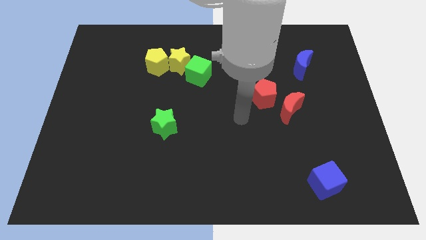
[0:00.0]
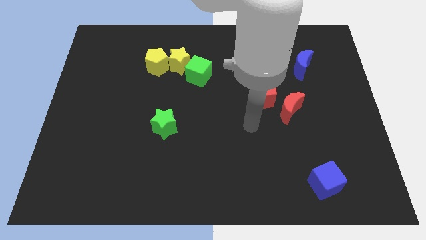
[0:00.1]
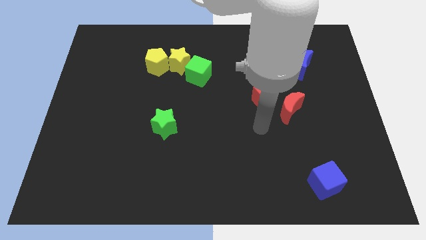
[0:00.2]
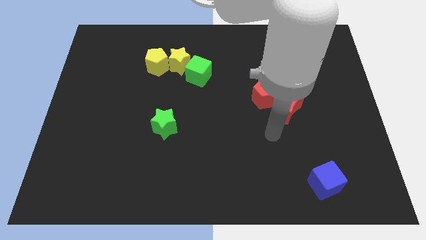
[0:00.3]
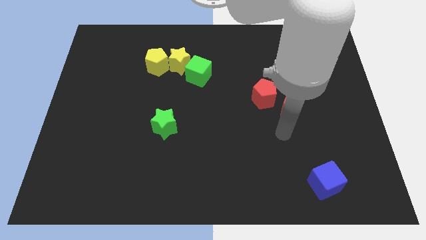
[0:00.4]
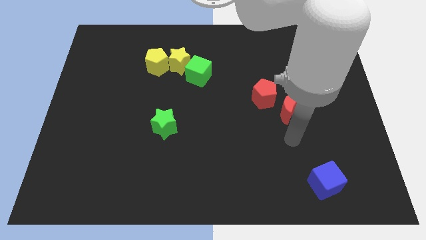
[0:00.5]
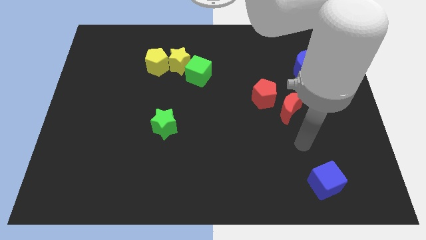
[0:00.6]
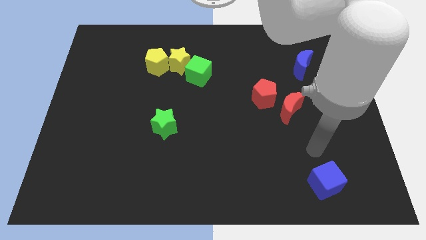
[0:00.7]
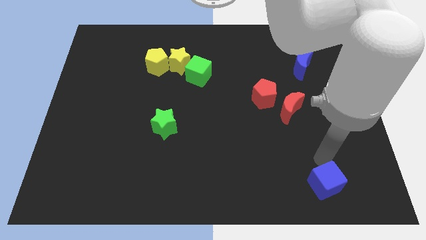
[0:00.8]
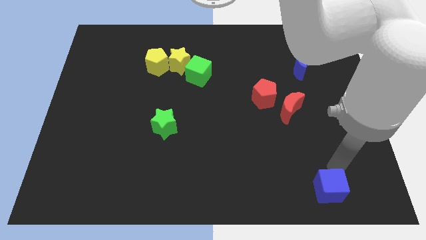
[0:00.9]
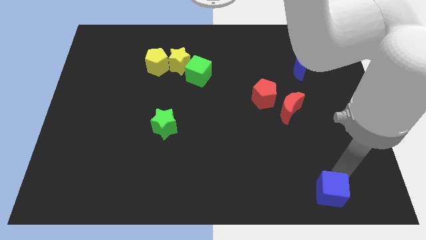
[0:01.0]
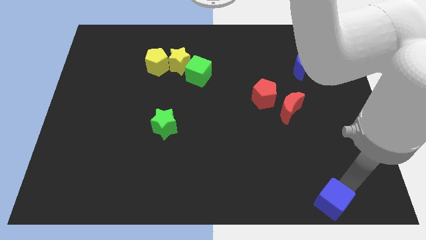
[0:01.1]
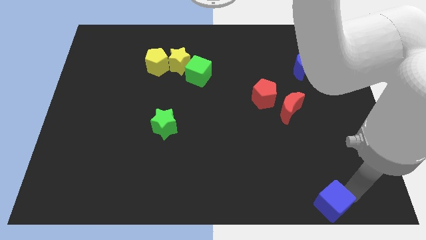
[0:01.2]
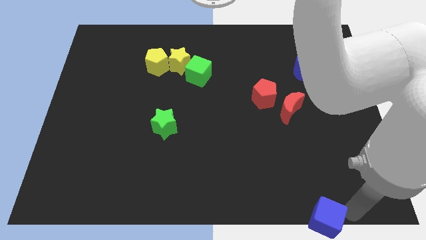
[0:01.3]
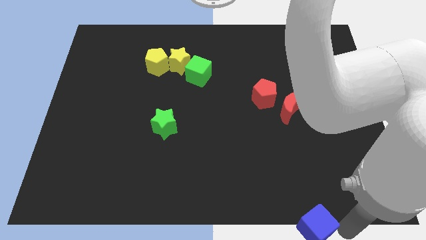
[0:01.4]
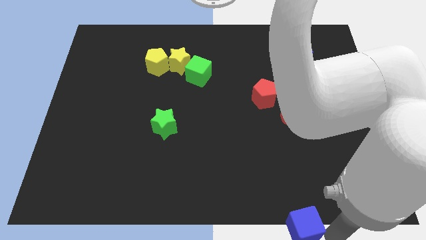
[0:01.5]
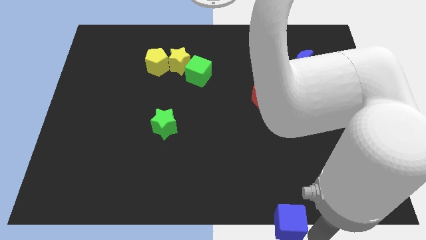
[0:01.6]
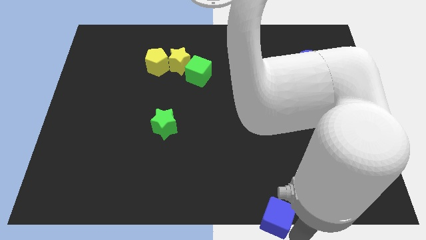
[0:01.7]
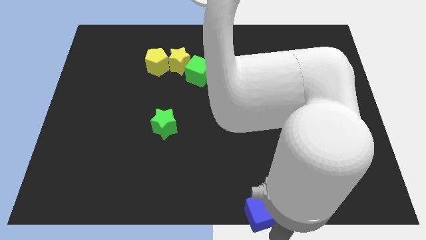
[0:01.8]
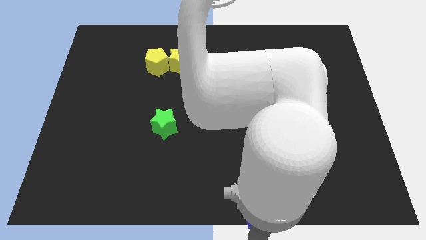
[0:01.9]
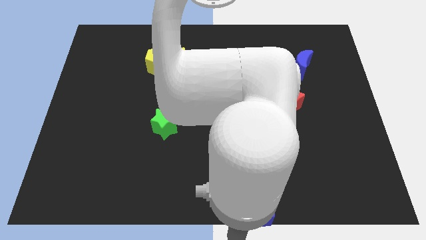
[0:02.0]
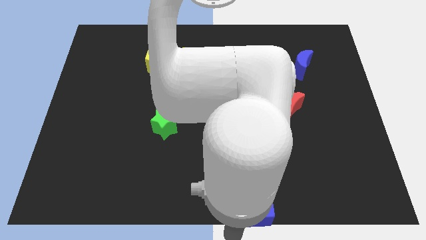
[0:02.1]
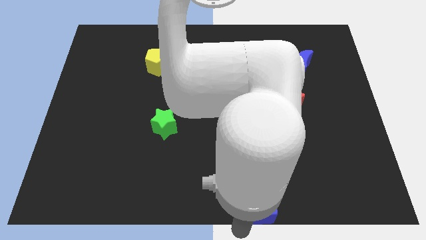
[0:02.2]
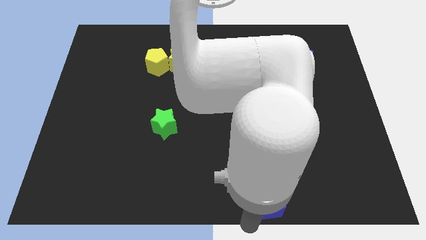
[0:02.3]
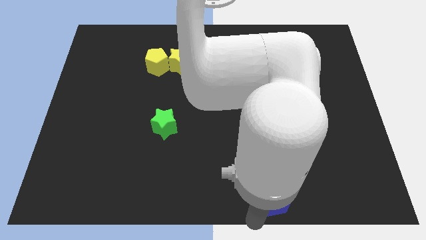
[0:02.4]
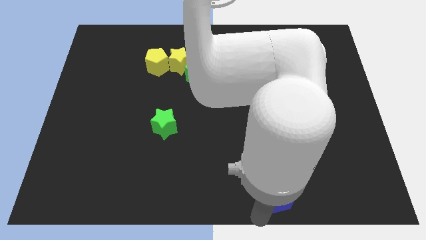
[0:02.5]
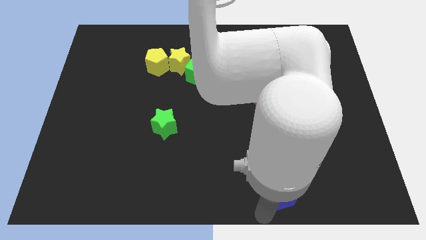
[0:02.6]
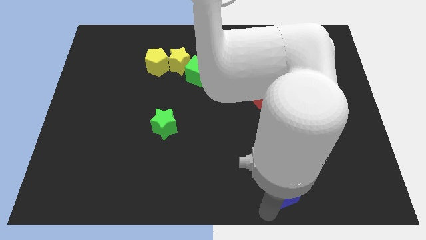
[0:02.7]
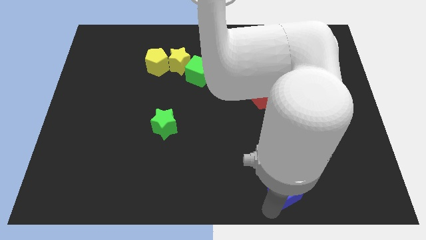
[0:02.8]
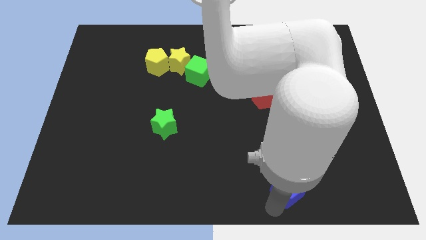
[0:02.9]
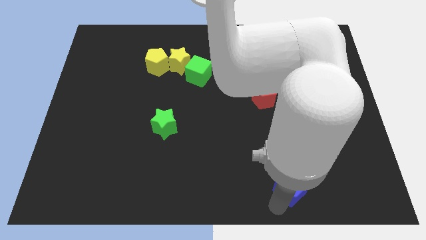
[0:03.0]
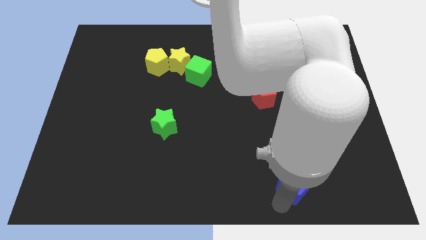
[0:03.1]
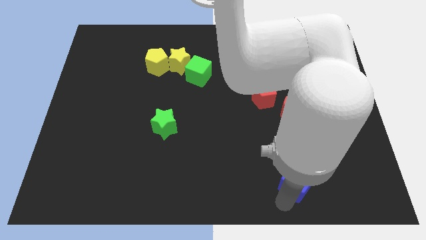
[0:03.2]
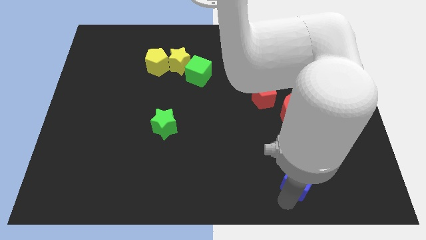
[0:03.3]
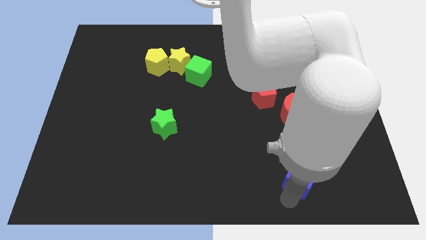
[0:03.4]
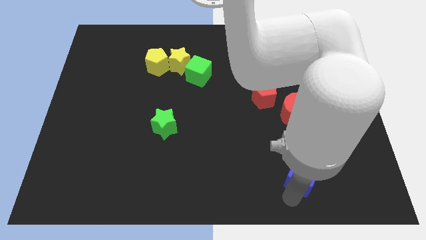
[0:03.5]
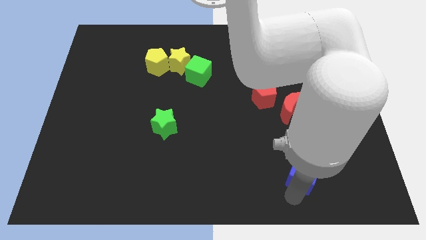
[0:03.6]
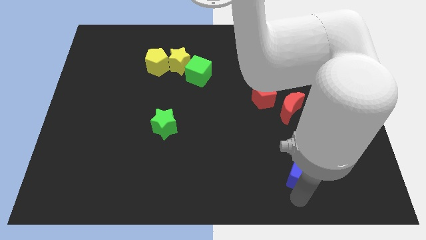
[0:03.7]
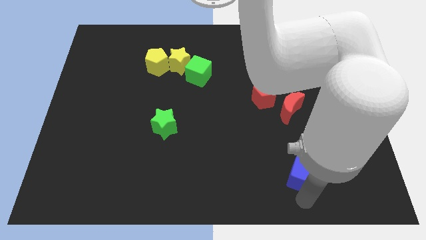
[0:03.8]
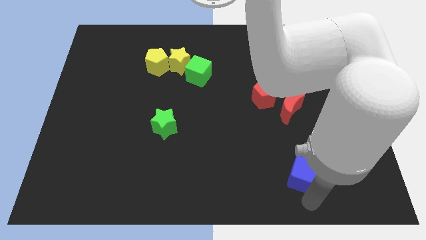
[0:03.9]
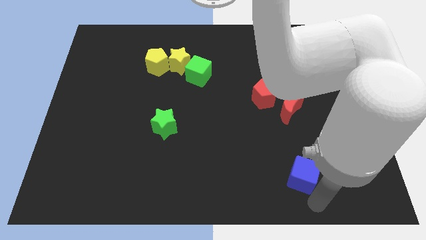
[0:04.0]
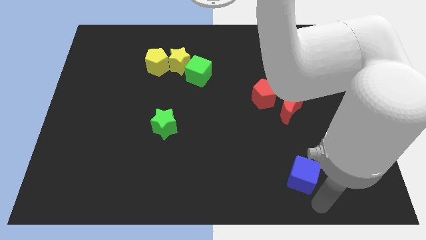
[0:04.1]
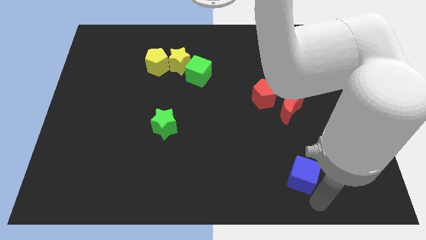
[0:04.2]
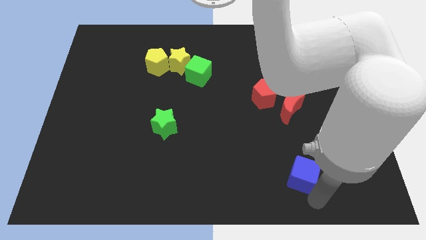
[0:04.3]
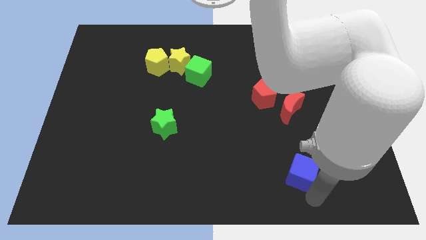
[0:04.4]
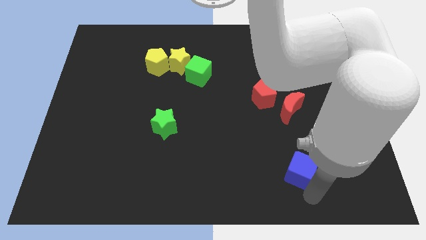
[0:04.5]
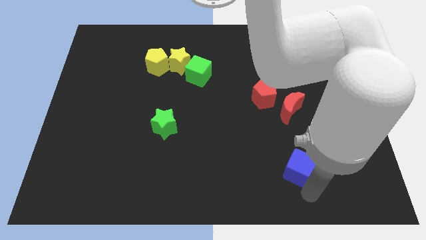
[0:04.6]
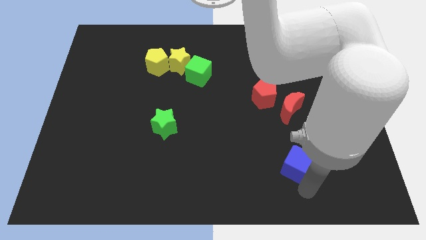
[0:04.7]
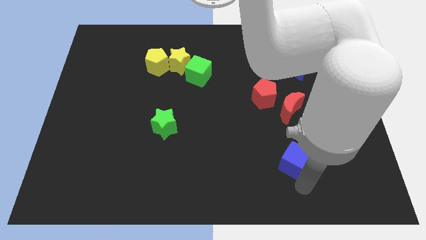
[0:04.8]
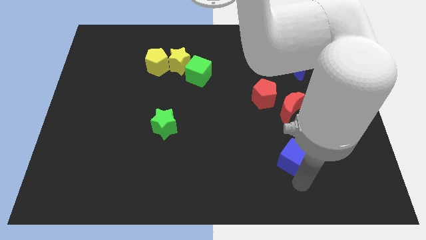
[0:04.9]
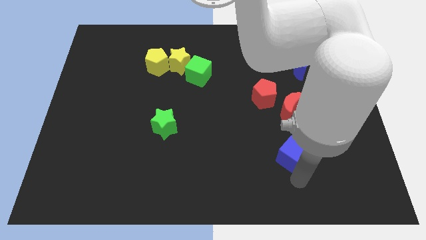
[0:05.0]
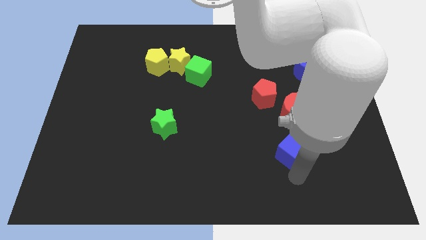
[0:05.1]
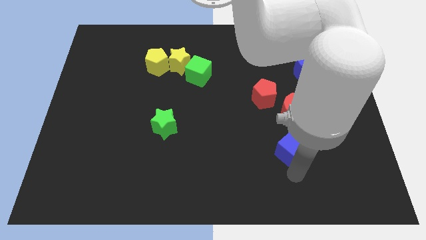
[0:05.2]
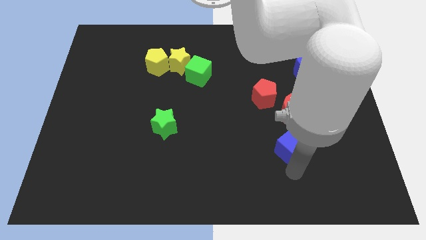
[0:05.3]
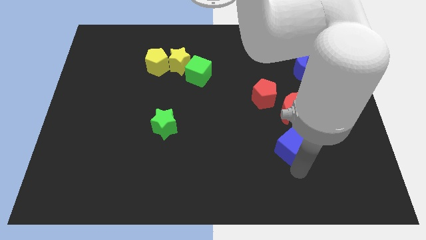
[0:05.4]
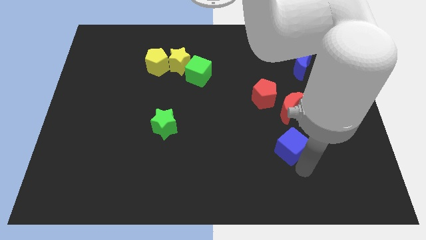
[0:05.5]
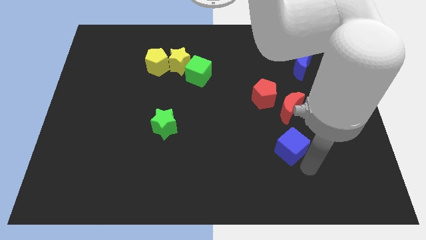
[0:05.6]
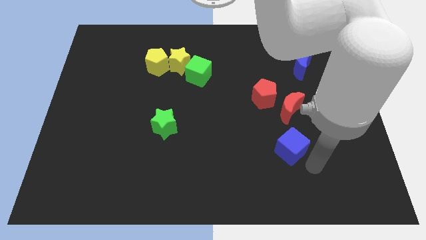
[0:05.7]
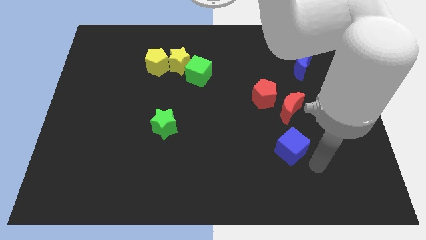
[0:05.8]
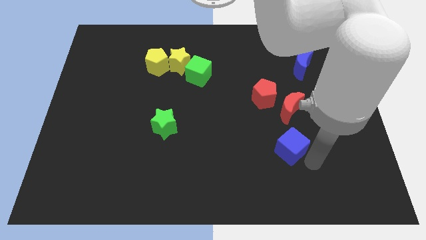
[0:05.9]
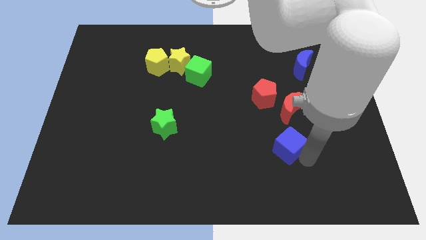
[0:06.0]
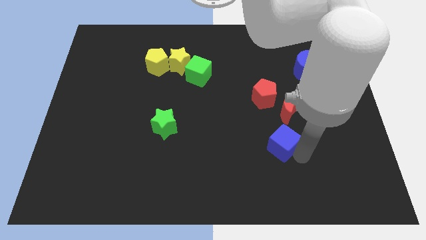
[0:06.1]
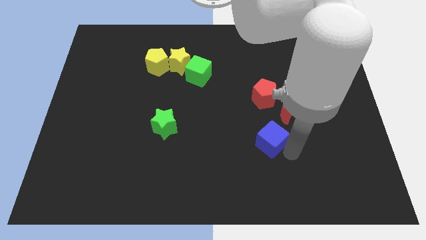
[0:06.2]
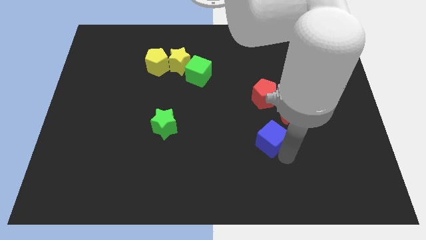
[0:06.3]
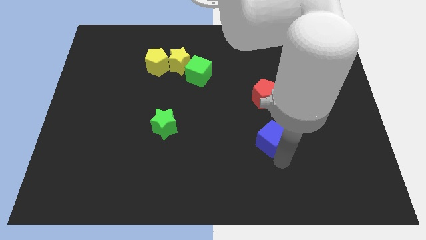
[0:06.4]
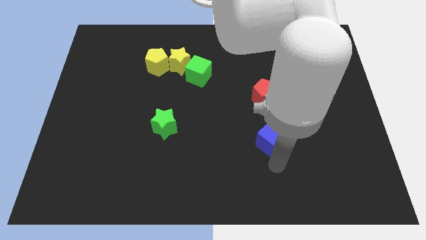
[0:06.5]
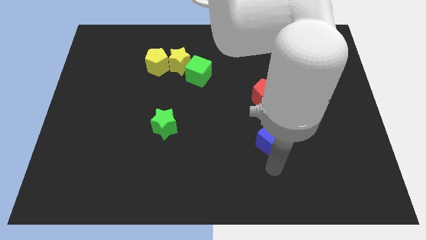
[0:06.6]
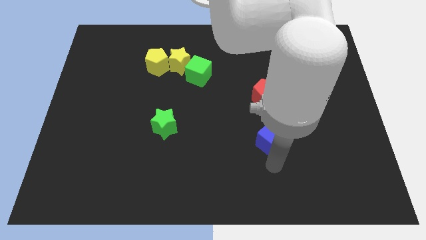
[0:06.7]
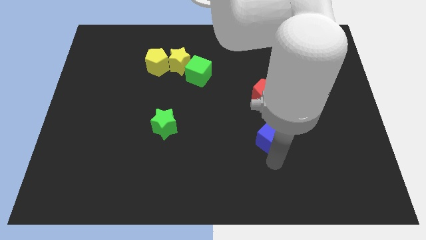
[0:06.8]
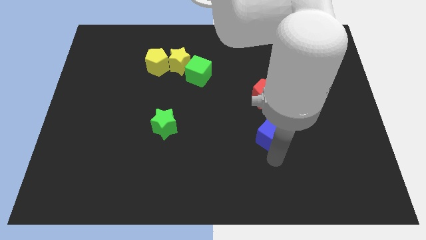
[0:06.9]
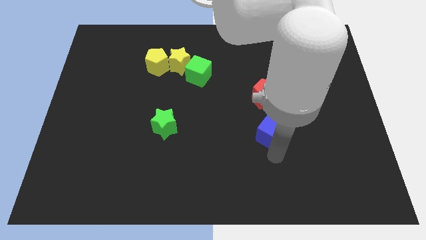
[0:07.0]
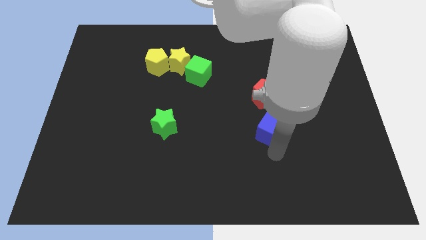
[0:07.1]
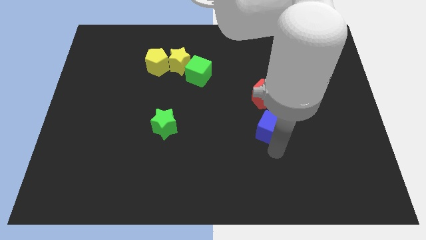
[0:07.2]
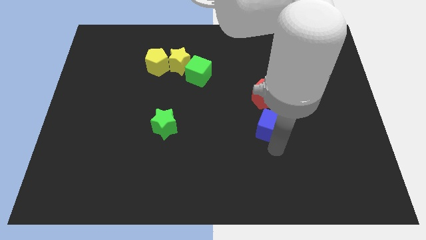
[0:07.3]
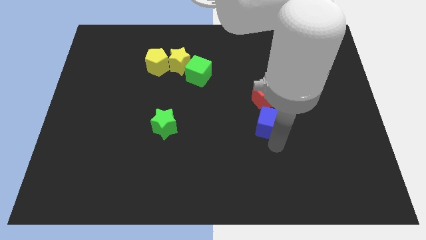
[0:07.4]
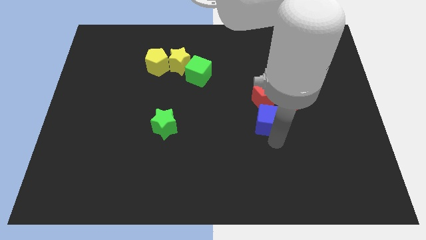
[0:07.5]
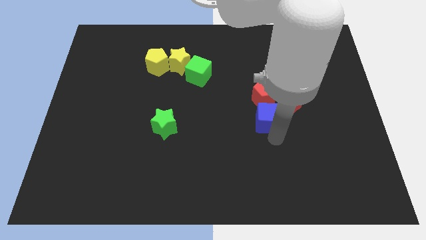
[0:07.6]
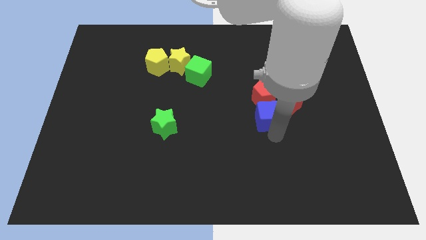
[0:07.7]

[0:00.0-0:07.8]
move the blue cube close to the red pentagon
